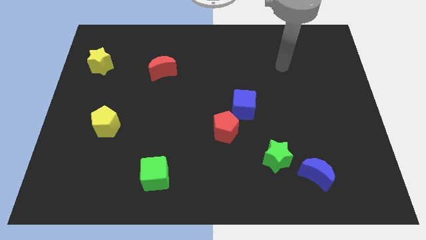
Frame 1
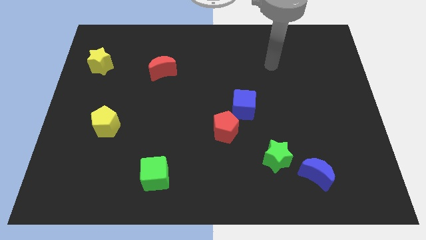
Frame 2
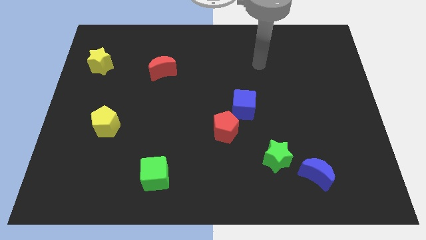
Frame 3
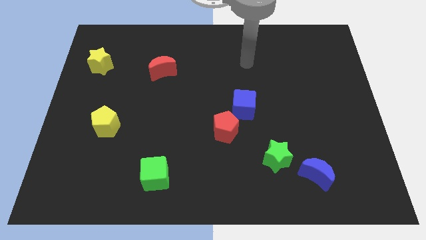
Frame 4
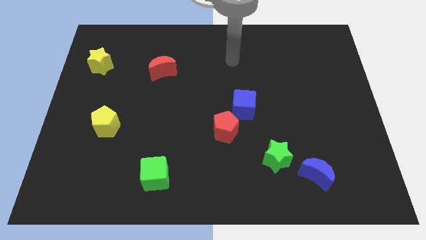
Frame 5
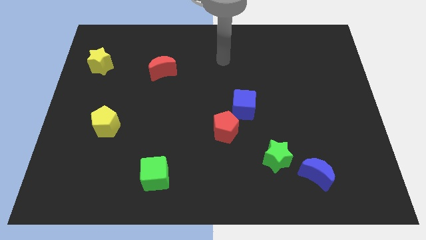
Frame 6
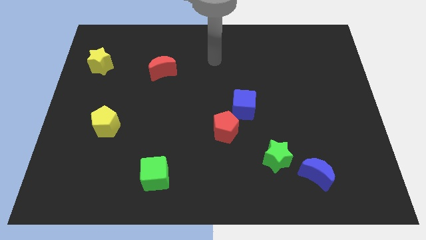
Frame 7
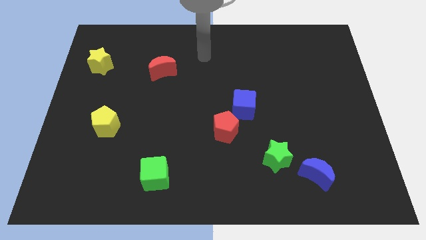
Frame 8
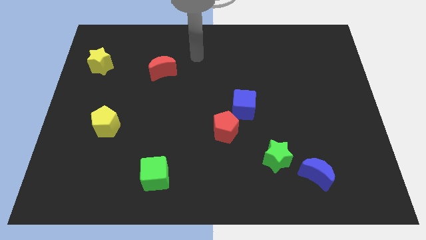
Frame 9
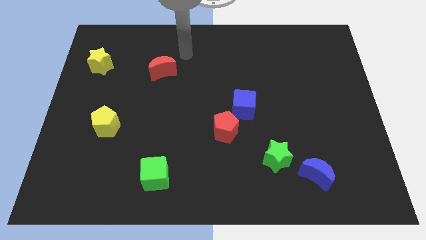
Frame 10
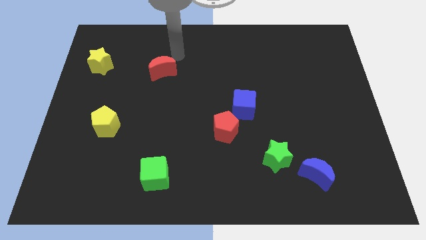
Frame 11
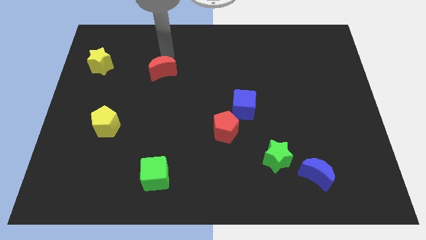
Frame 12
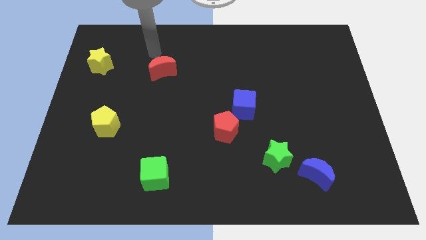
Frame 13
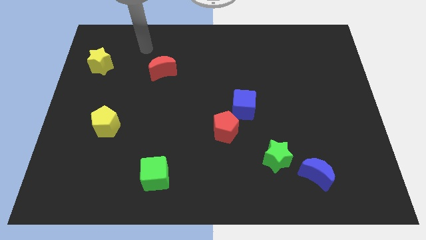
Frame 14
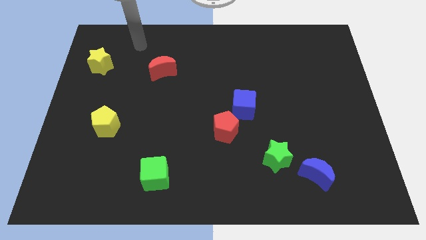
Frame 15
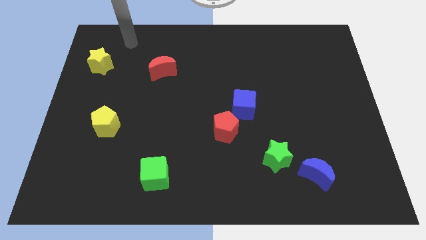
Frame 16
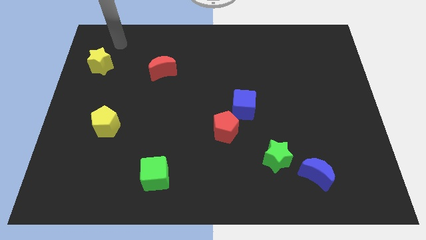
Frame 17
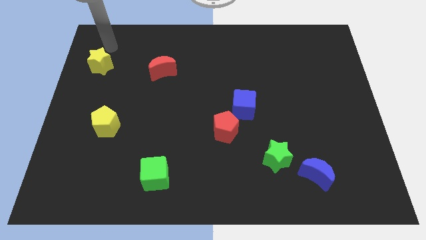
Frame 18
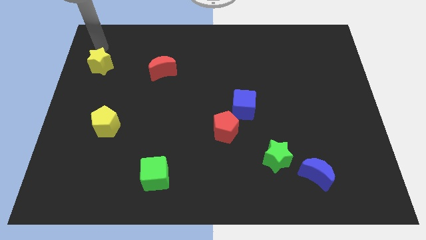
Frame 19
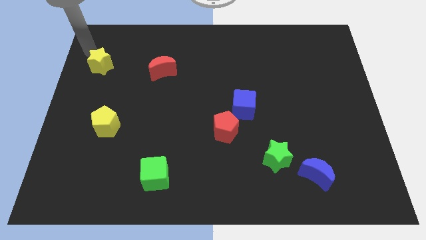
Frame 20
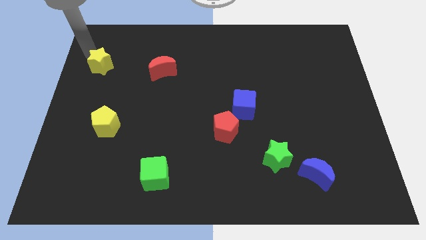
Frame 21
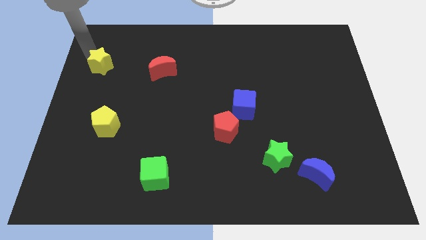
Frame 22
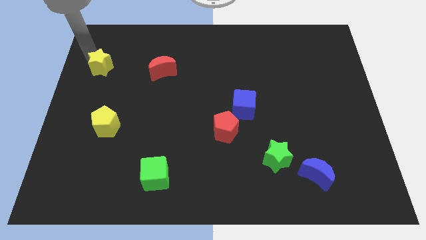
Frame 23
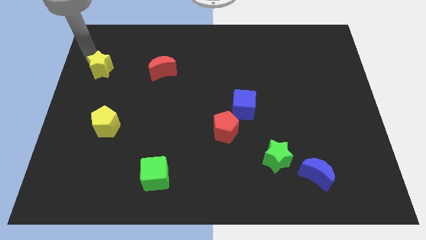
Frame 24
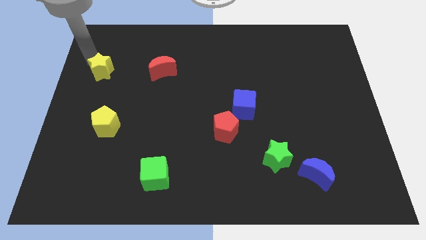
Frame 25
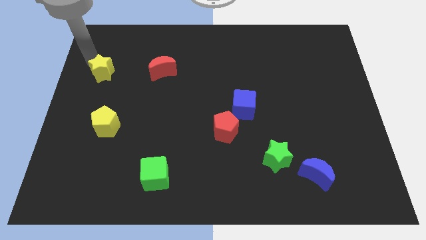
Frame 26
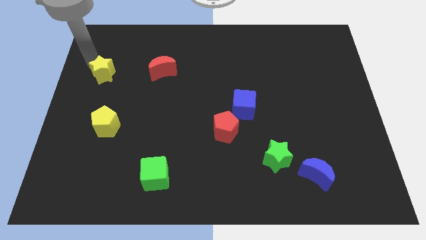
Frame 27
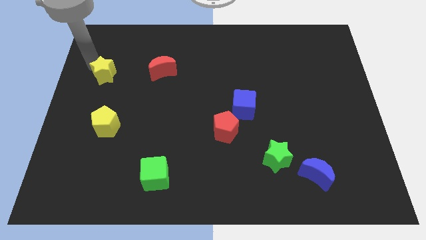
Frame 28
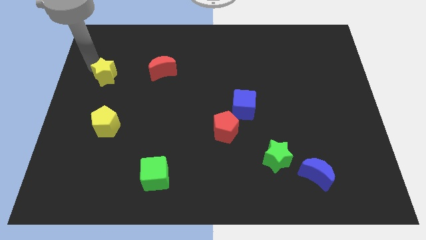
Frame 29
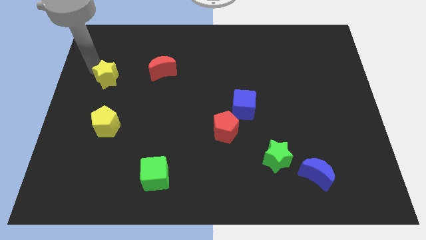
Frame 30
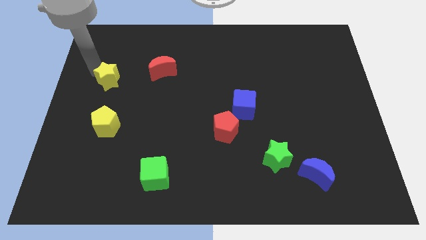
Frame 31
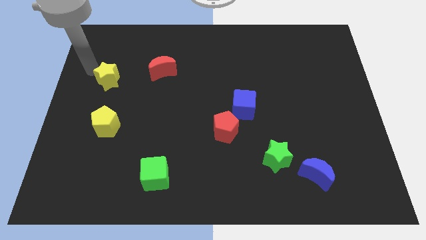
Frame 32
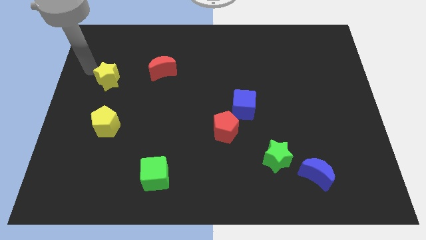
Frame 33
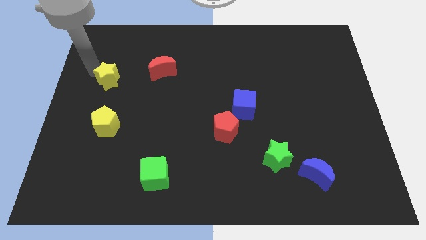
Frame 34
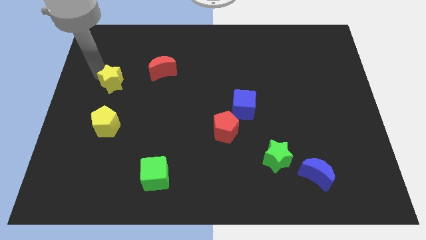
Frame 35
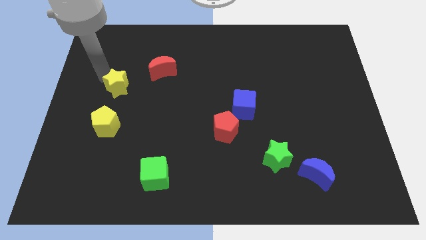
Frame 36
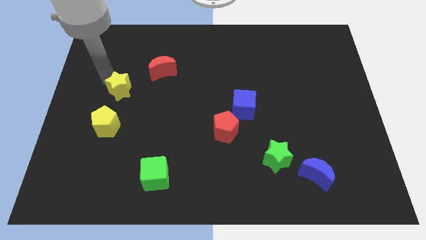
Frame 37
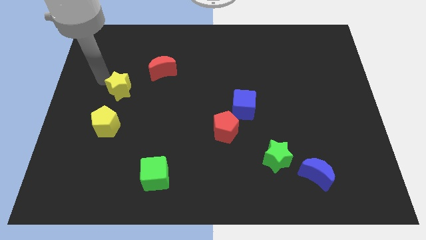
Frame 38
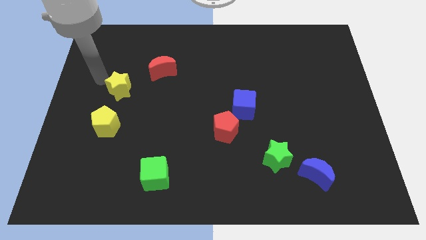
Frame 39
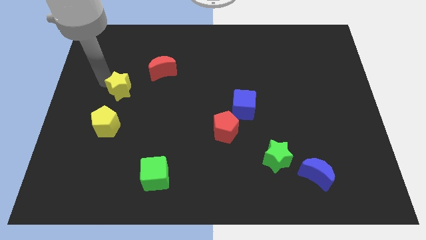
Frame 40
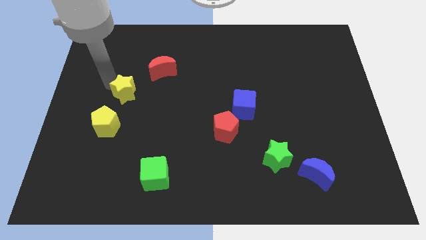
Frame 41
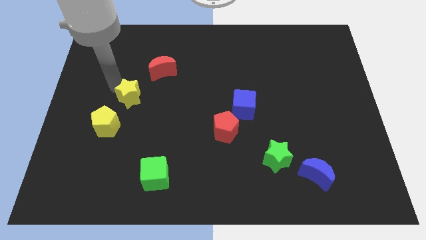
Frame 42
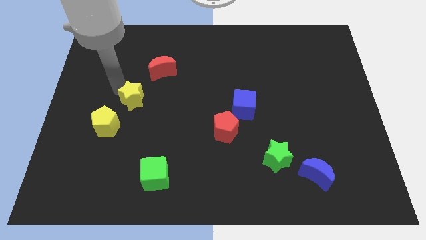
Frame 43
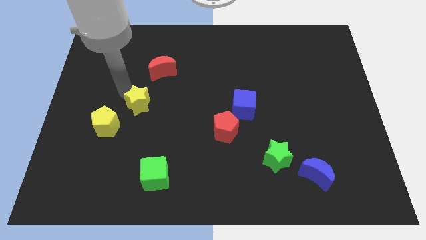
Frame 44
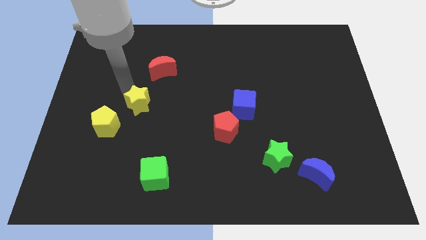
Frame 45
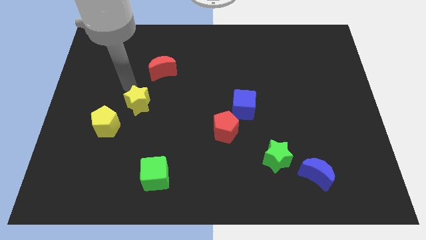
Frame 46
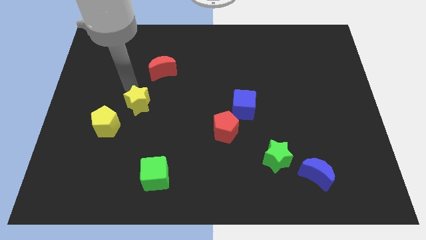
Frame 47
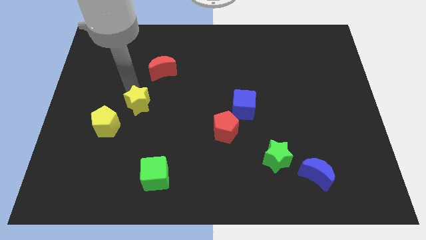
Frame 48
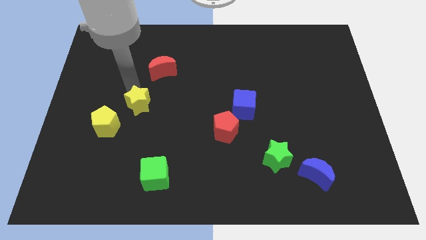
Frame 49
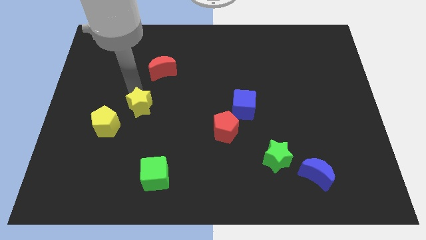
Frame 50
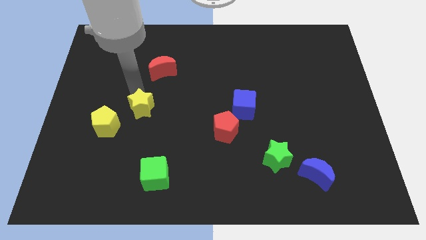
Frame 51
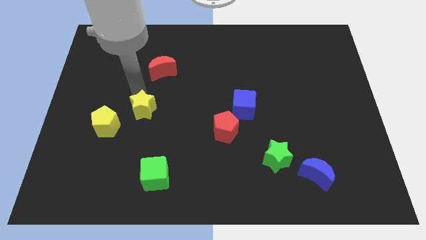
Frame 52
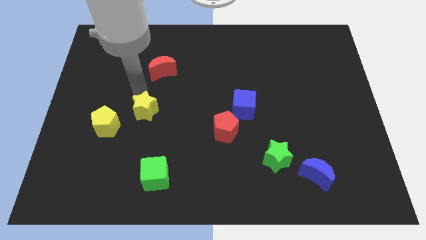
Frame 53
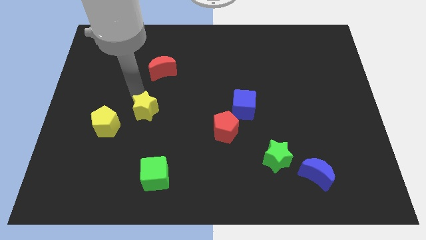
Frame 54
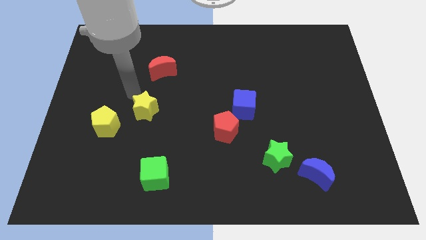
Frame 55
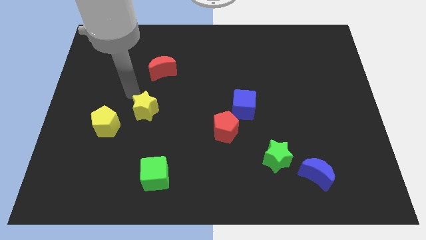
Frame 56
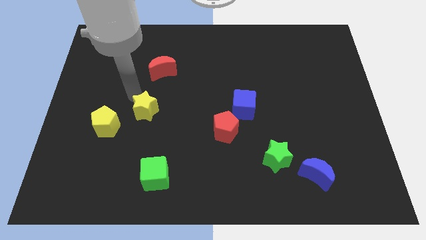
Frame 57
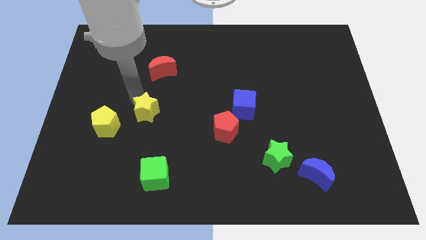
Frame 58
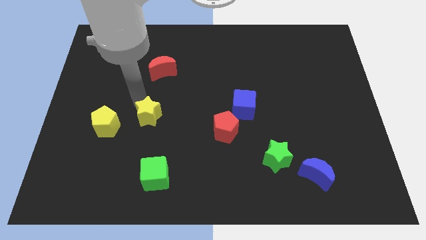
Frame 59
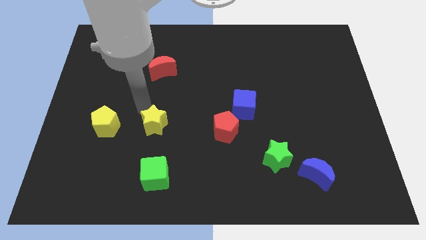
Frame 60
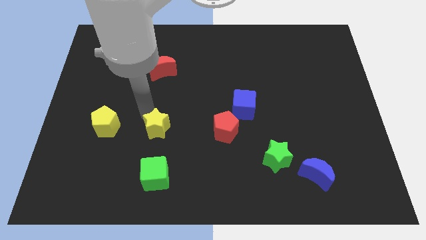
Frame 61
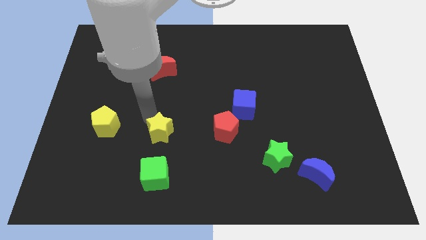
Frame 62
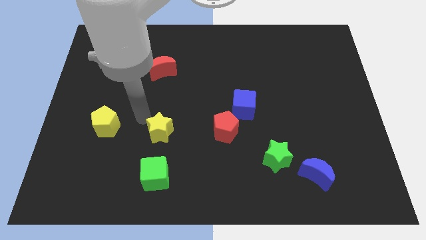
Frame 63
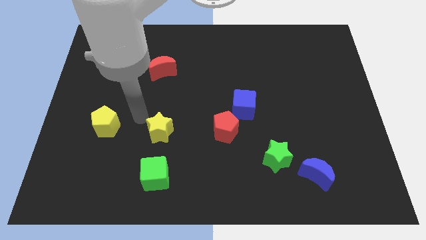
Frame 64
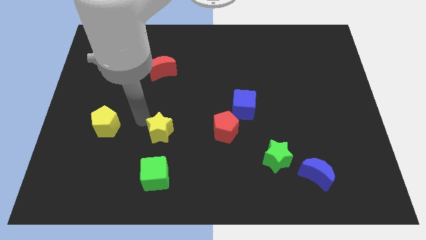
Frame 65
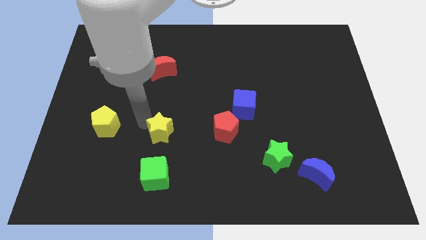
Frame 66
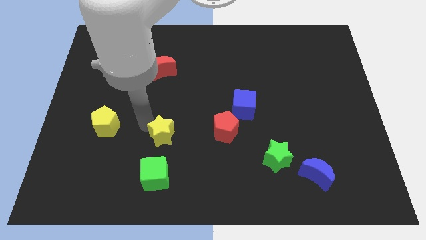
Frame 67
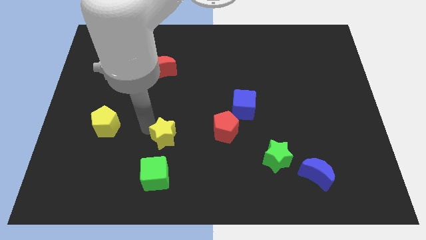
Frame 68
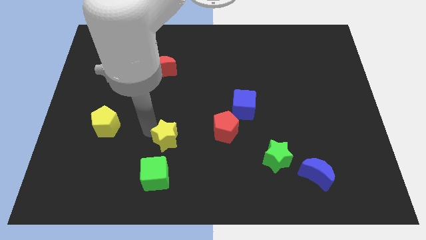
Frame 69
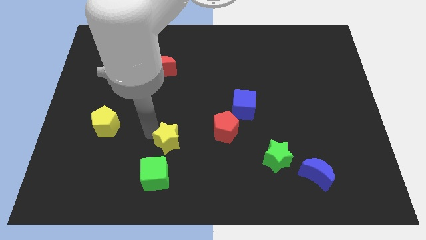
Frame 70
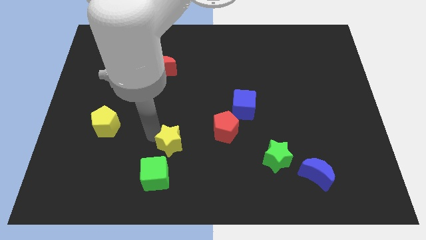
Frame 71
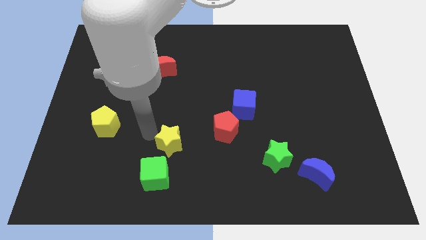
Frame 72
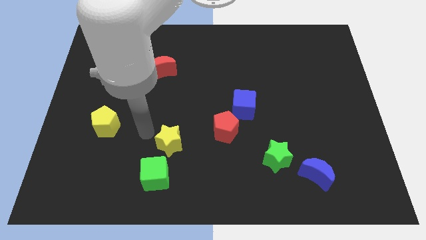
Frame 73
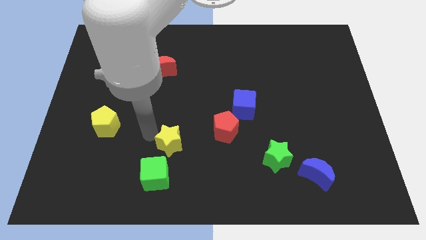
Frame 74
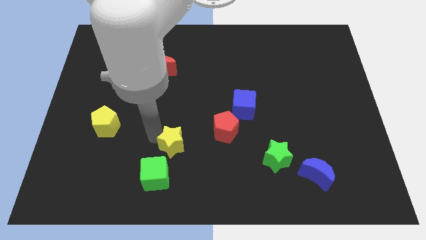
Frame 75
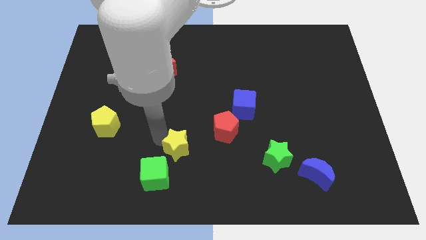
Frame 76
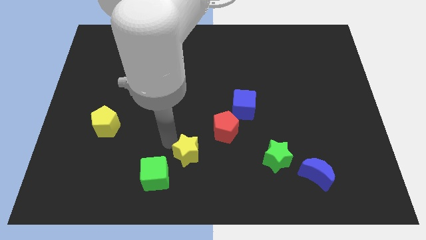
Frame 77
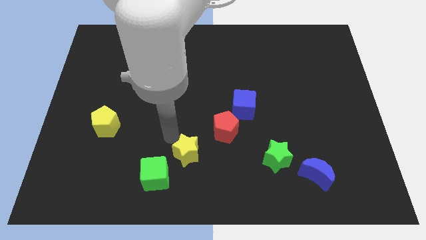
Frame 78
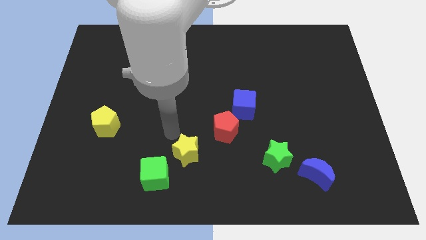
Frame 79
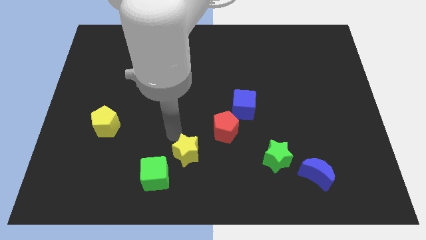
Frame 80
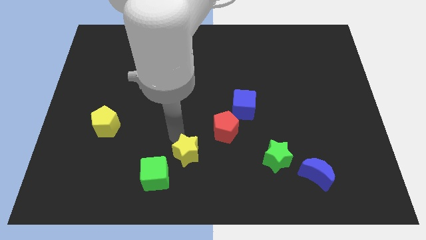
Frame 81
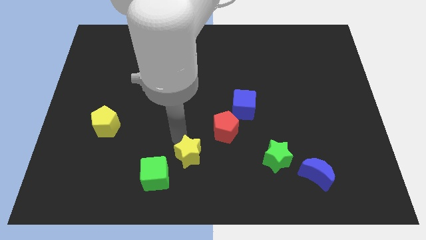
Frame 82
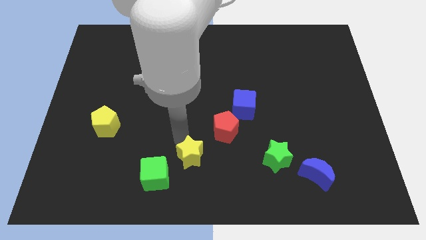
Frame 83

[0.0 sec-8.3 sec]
put the yellow star to the bottom
